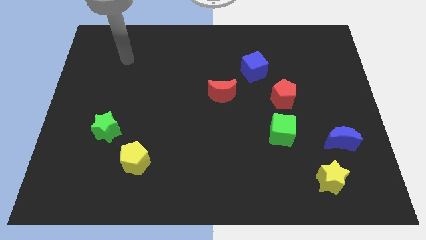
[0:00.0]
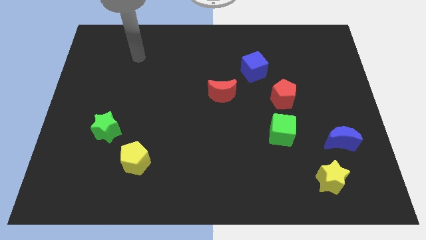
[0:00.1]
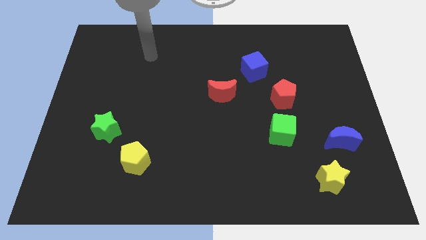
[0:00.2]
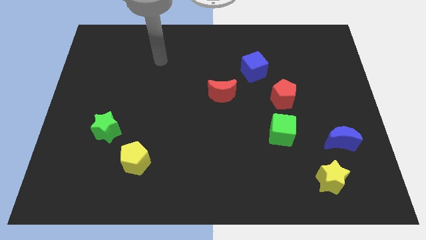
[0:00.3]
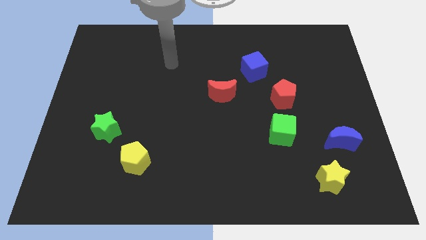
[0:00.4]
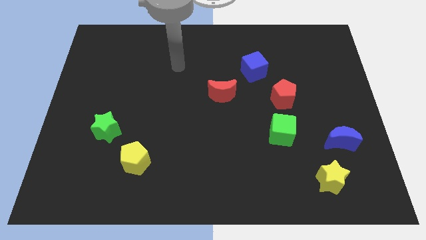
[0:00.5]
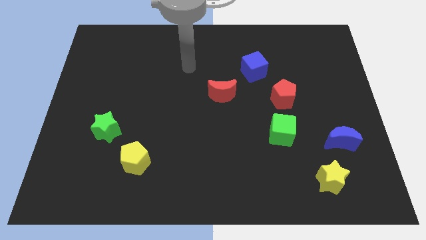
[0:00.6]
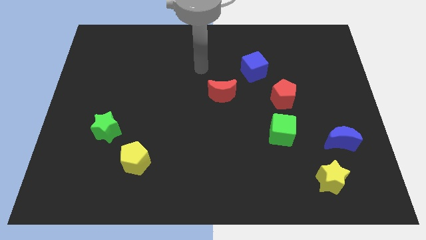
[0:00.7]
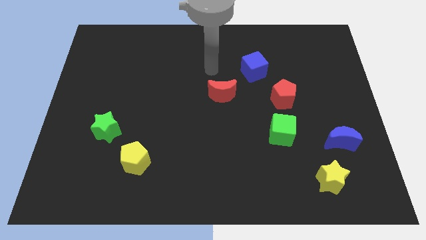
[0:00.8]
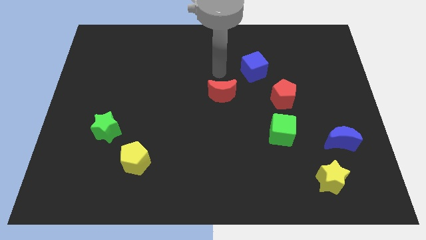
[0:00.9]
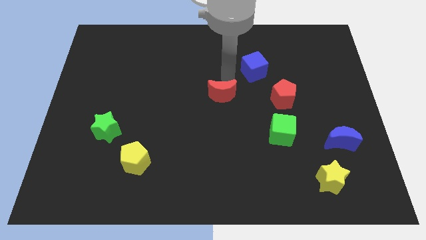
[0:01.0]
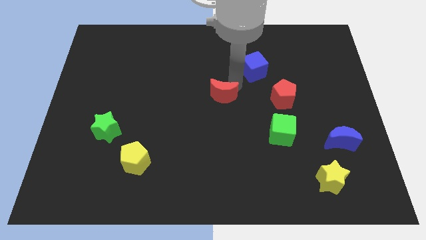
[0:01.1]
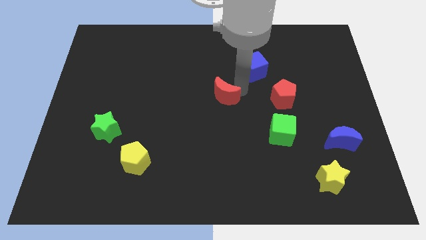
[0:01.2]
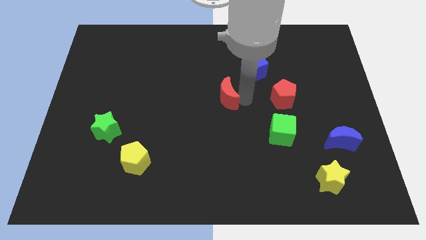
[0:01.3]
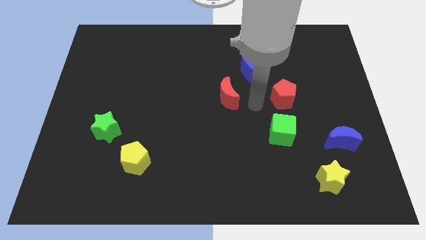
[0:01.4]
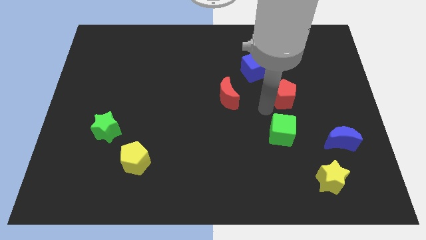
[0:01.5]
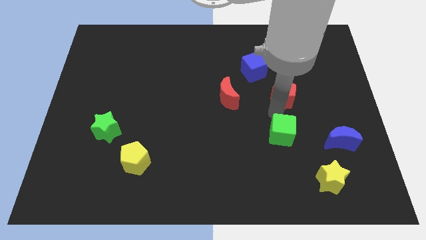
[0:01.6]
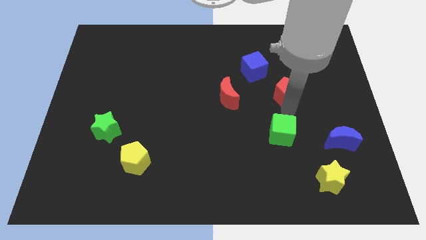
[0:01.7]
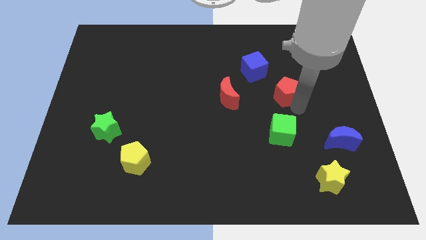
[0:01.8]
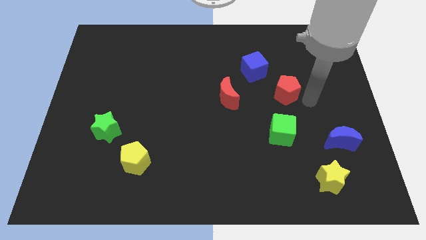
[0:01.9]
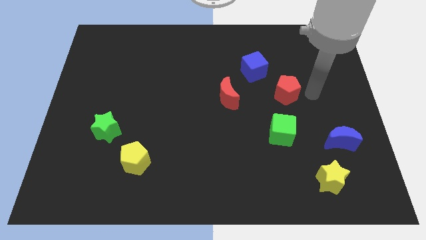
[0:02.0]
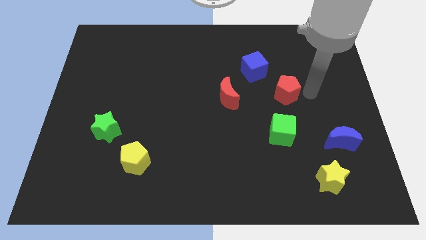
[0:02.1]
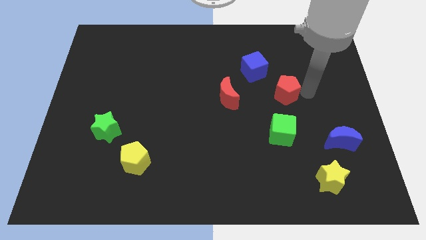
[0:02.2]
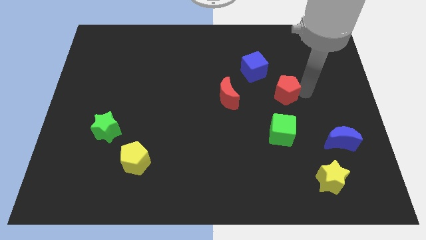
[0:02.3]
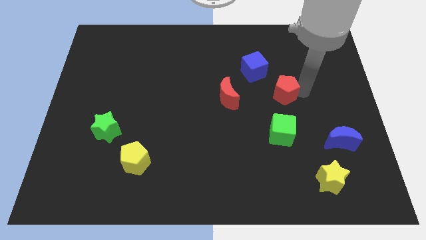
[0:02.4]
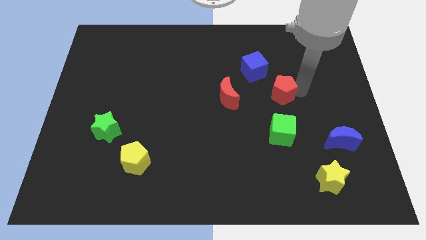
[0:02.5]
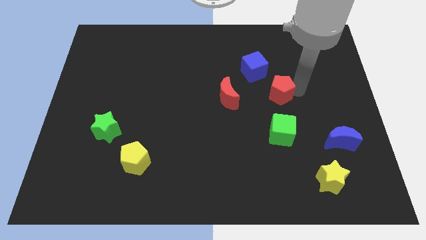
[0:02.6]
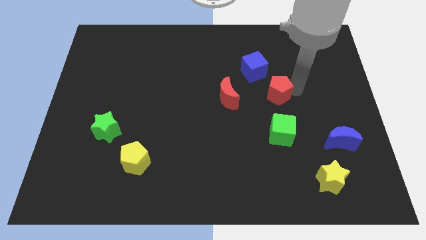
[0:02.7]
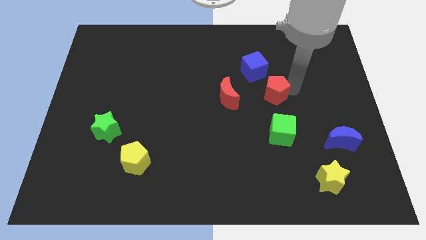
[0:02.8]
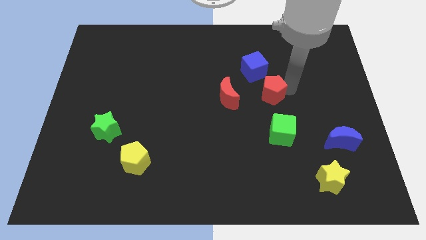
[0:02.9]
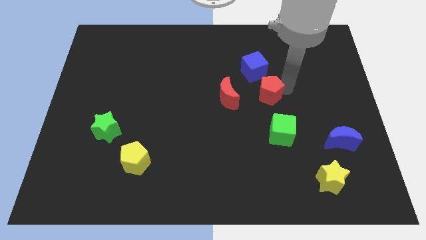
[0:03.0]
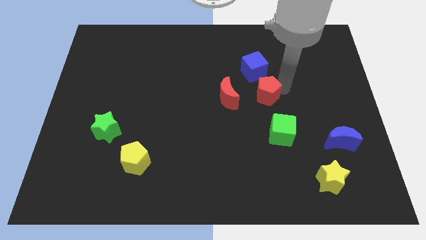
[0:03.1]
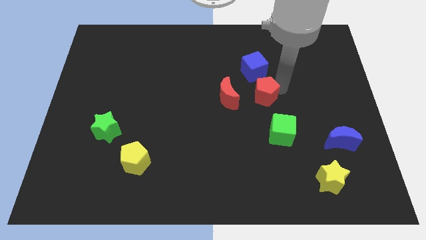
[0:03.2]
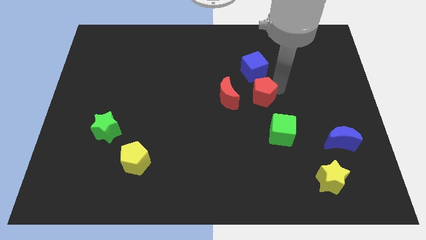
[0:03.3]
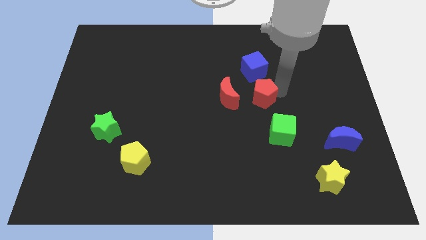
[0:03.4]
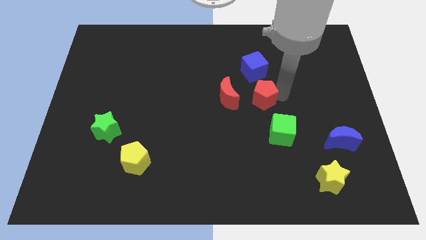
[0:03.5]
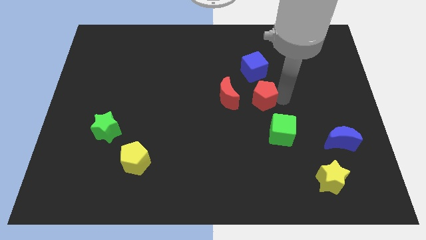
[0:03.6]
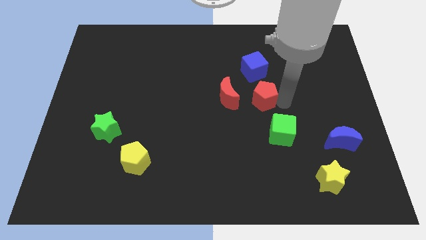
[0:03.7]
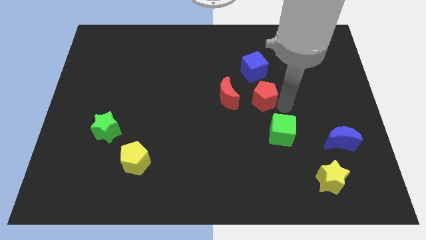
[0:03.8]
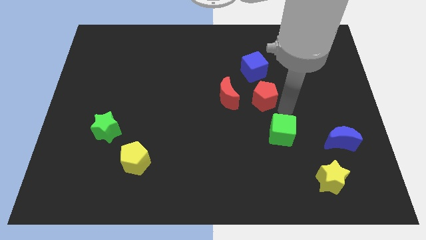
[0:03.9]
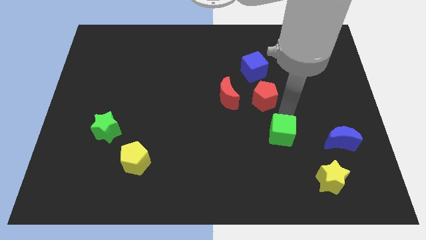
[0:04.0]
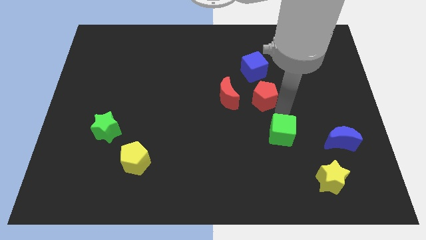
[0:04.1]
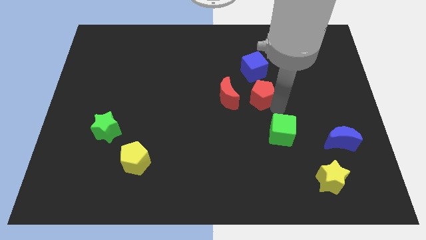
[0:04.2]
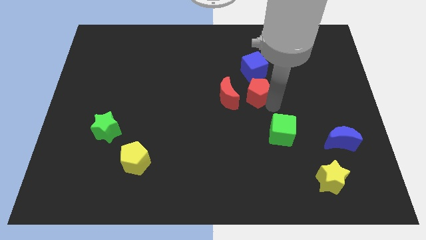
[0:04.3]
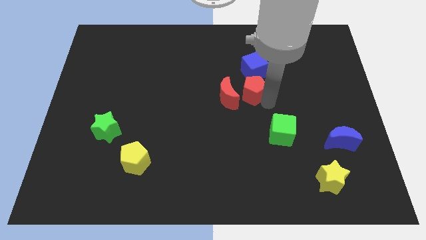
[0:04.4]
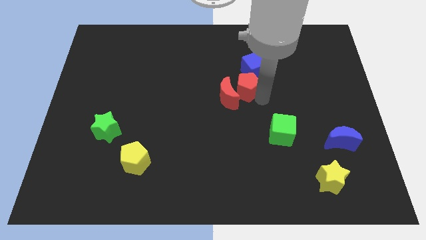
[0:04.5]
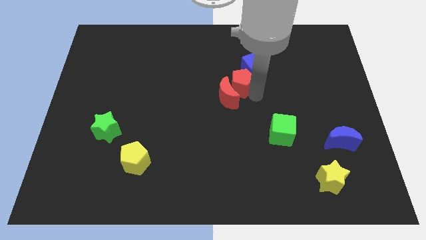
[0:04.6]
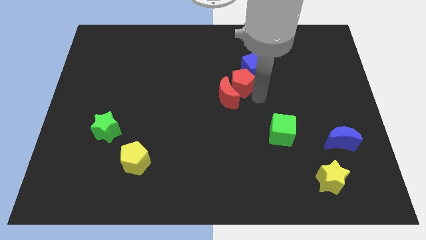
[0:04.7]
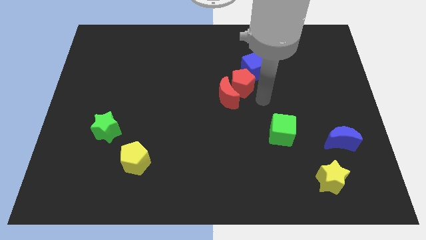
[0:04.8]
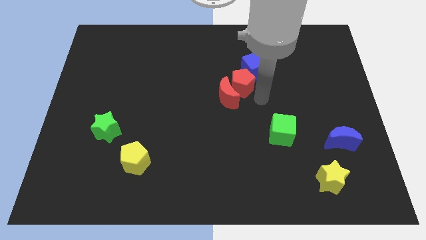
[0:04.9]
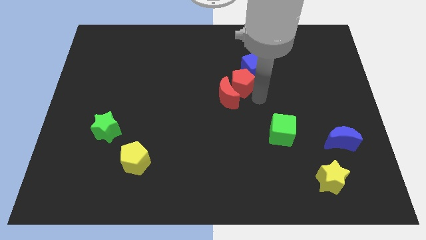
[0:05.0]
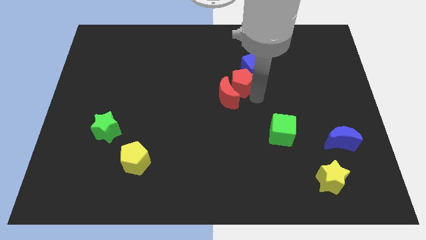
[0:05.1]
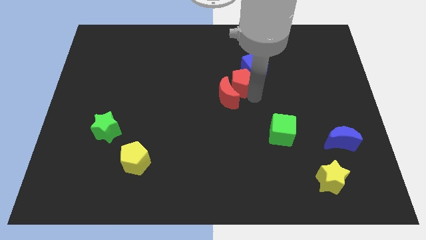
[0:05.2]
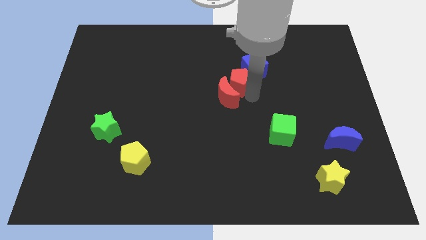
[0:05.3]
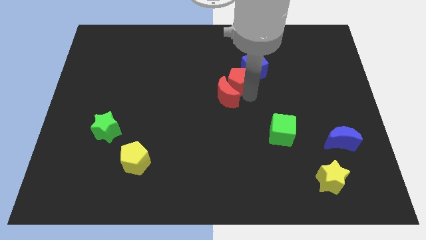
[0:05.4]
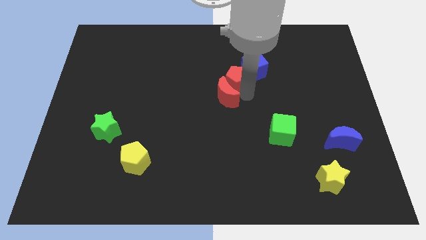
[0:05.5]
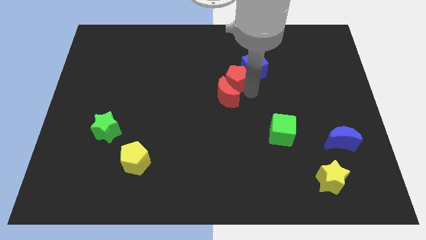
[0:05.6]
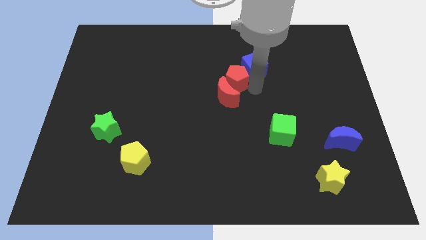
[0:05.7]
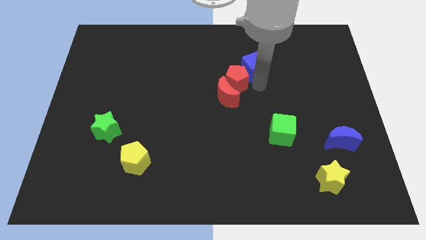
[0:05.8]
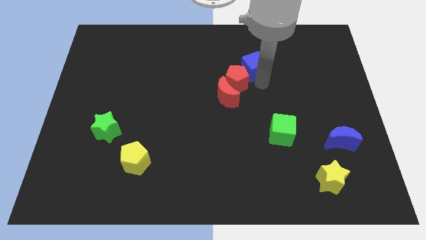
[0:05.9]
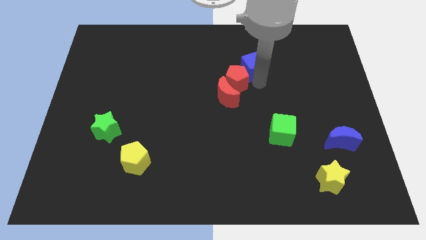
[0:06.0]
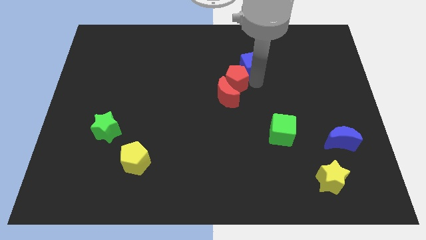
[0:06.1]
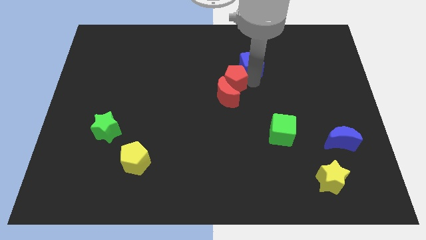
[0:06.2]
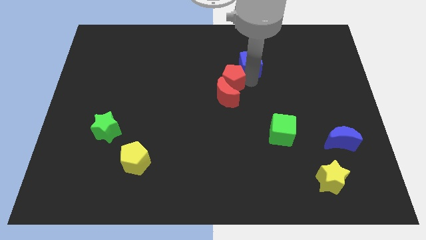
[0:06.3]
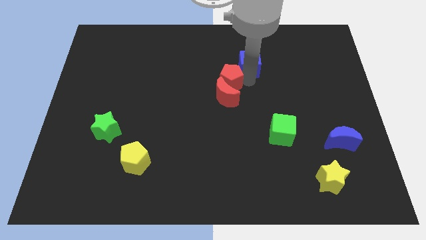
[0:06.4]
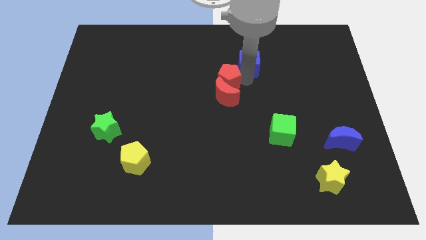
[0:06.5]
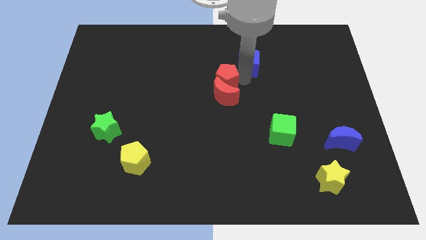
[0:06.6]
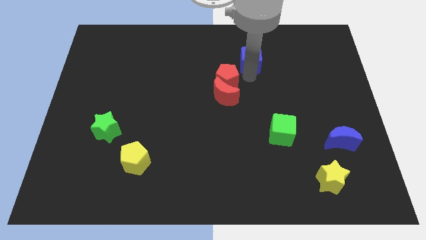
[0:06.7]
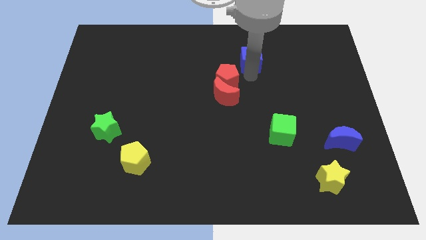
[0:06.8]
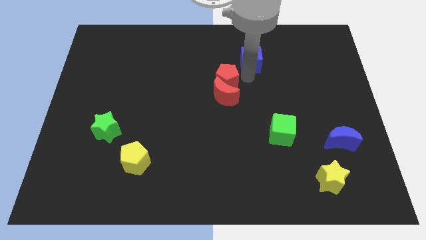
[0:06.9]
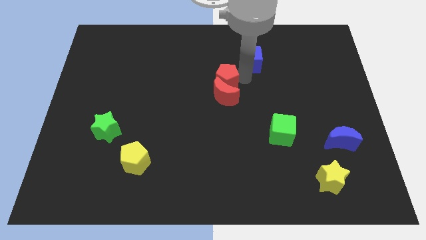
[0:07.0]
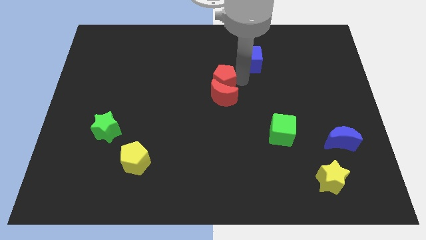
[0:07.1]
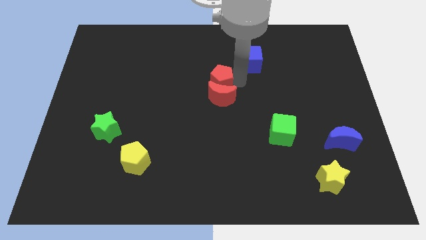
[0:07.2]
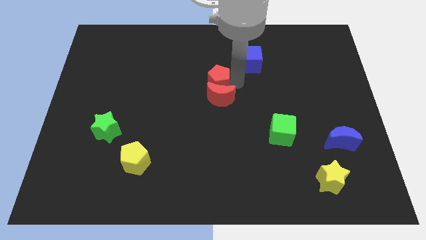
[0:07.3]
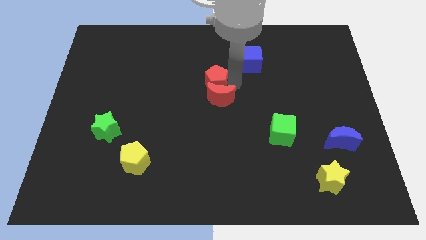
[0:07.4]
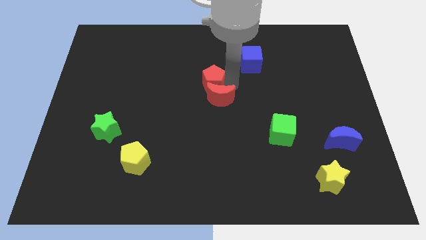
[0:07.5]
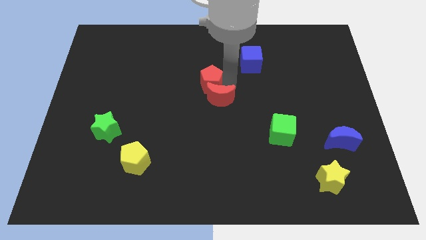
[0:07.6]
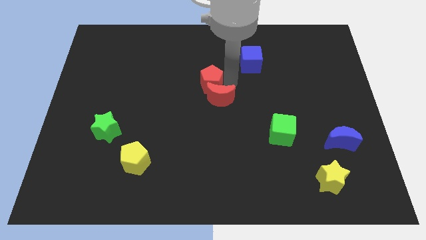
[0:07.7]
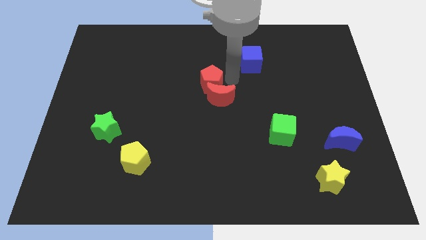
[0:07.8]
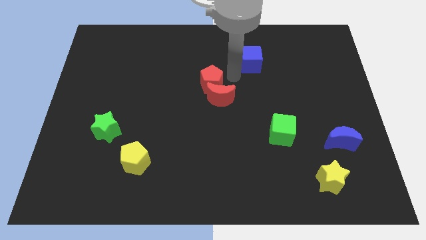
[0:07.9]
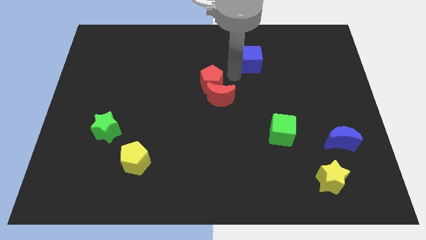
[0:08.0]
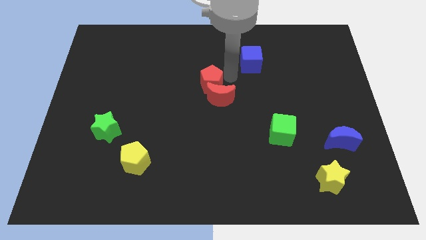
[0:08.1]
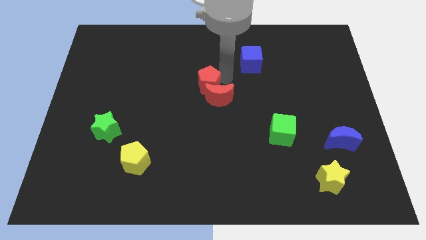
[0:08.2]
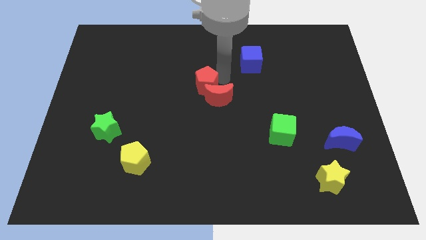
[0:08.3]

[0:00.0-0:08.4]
slide the red pentagon to the left side of the red moon
